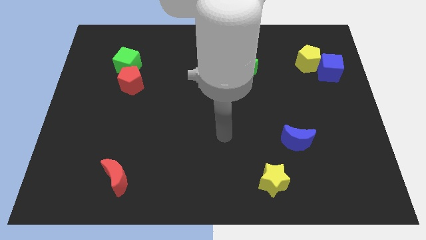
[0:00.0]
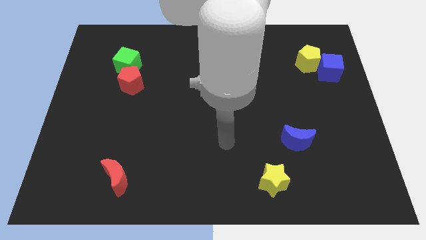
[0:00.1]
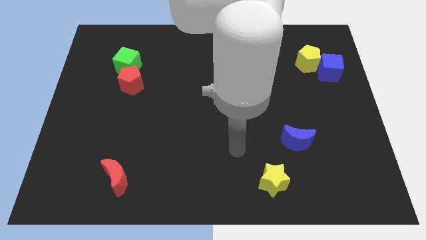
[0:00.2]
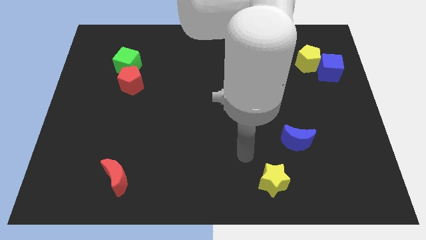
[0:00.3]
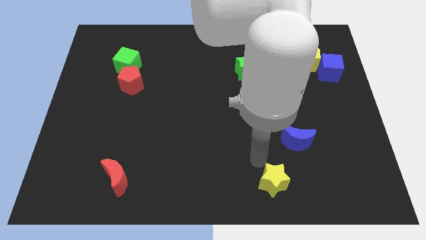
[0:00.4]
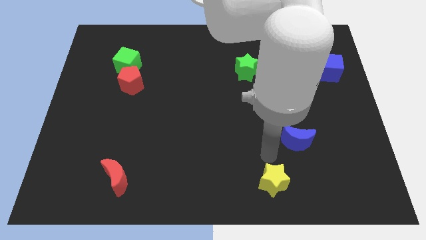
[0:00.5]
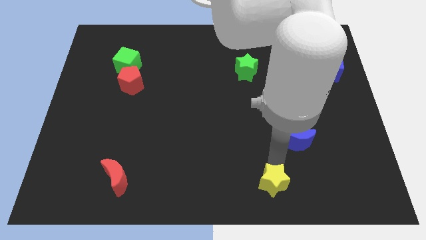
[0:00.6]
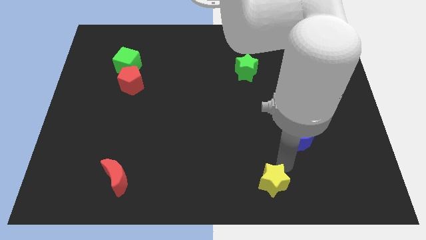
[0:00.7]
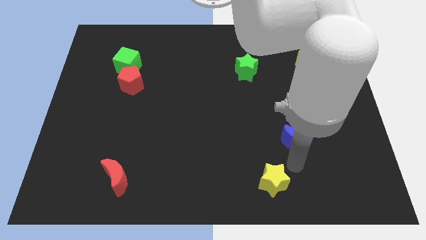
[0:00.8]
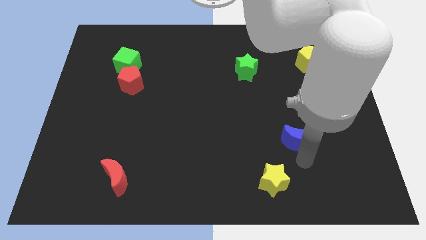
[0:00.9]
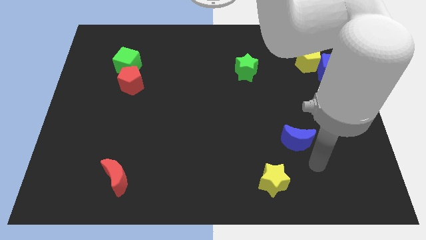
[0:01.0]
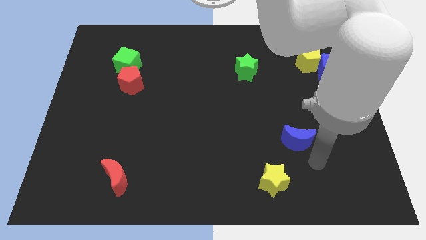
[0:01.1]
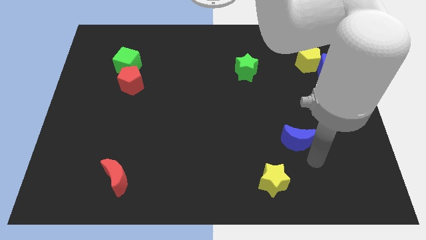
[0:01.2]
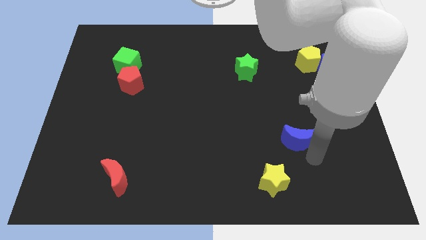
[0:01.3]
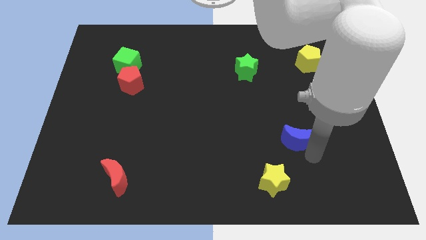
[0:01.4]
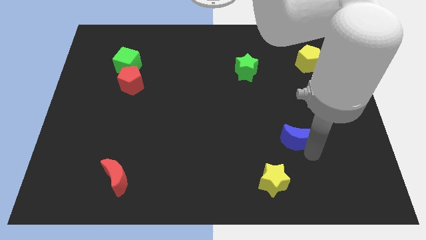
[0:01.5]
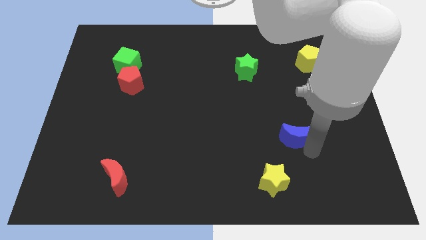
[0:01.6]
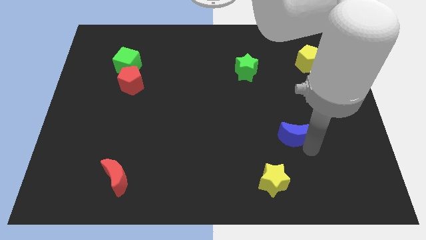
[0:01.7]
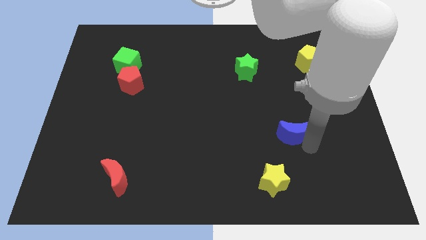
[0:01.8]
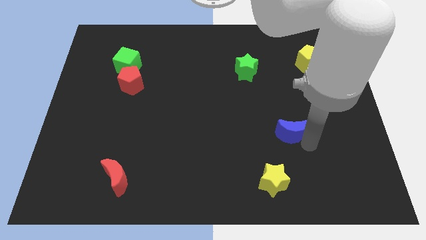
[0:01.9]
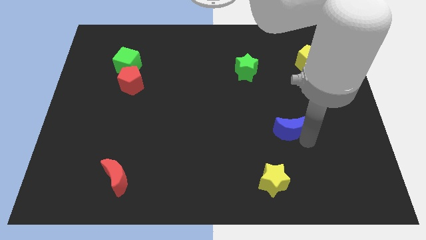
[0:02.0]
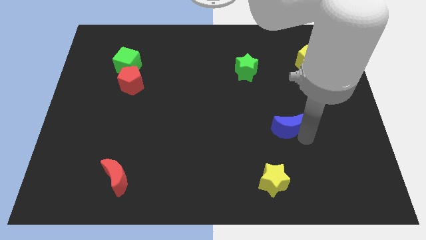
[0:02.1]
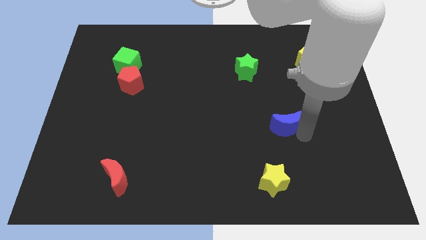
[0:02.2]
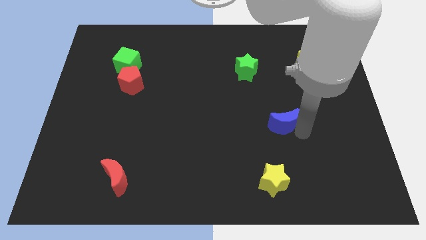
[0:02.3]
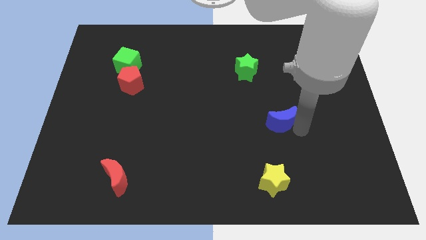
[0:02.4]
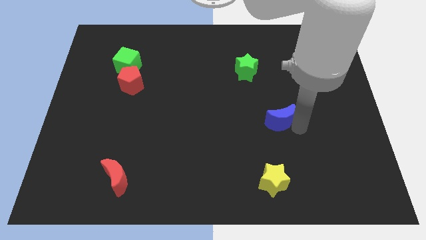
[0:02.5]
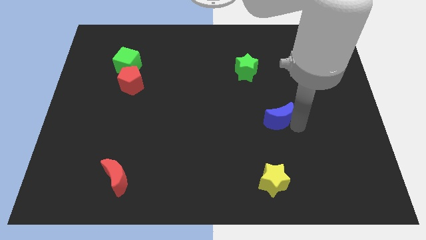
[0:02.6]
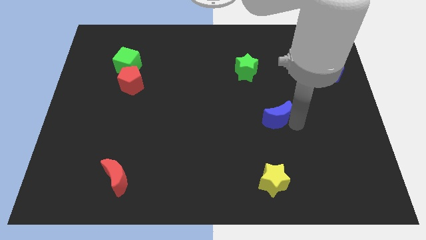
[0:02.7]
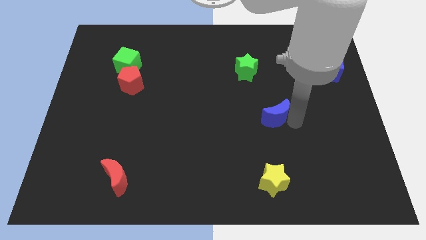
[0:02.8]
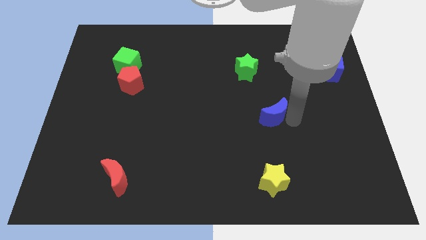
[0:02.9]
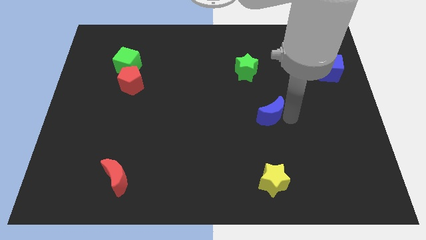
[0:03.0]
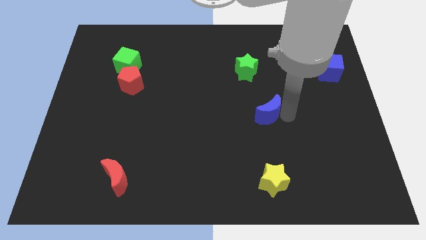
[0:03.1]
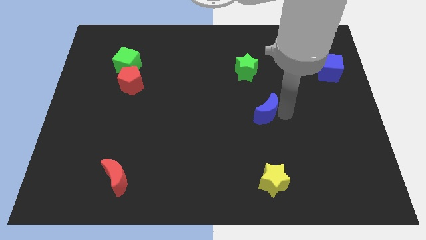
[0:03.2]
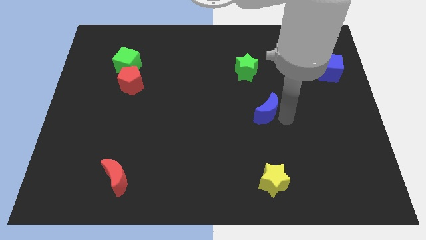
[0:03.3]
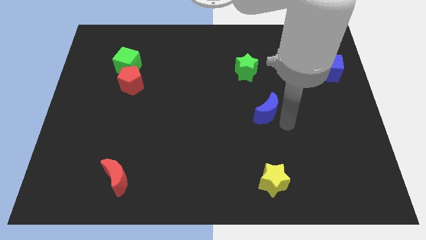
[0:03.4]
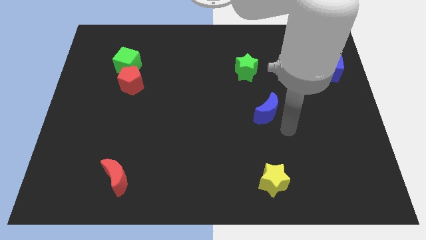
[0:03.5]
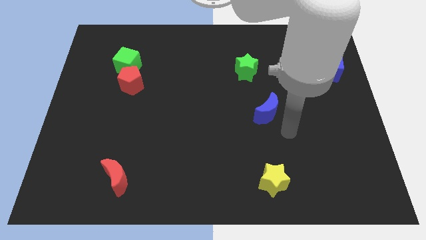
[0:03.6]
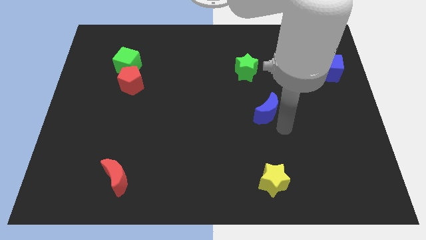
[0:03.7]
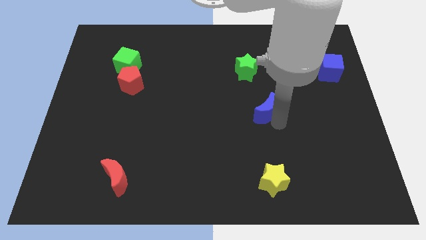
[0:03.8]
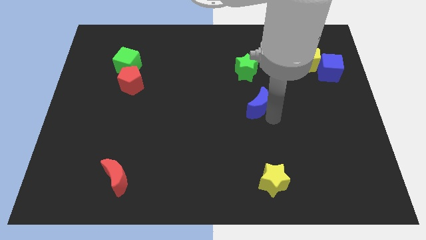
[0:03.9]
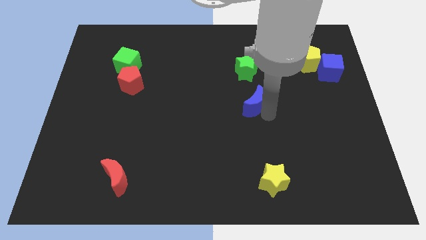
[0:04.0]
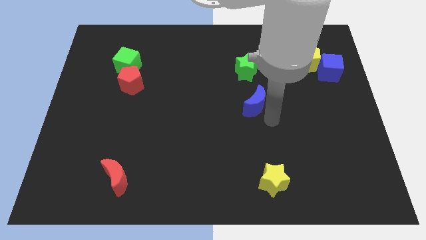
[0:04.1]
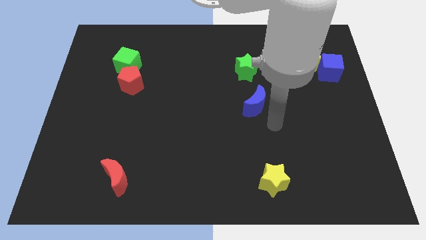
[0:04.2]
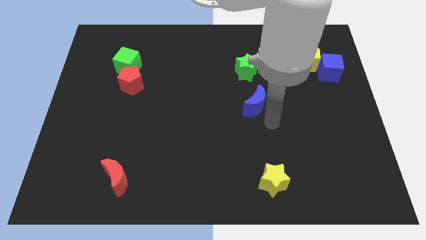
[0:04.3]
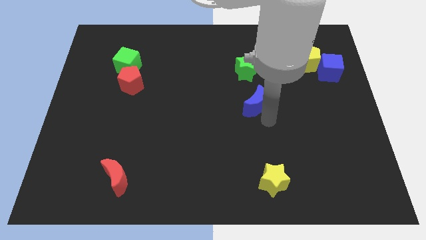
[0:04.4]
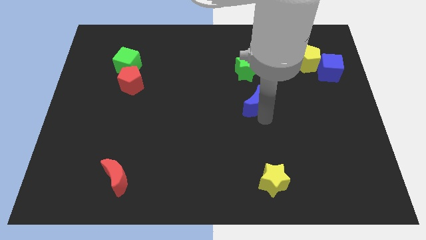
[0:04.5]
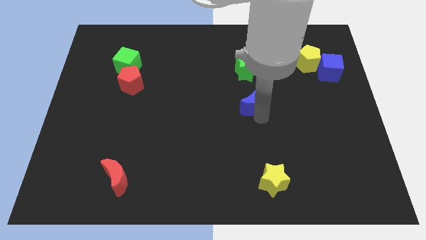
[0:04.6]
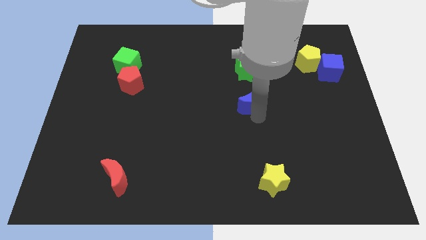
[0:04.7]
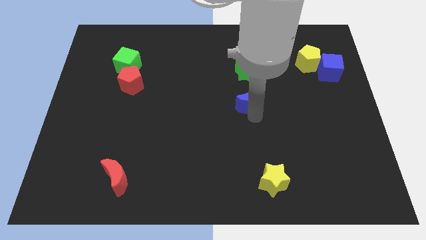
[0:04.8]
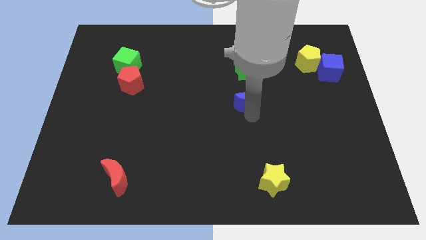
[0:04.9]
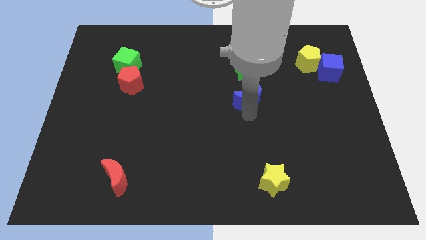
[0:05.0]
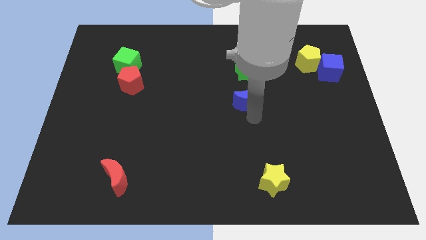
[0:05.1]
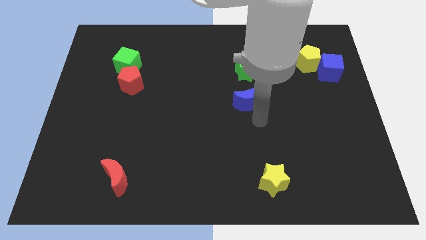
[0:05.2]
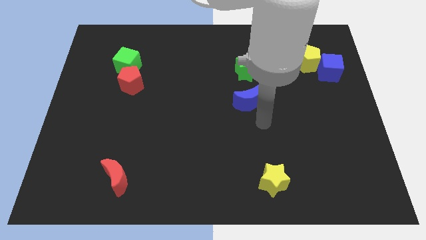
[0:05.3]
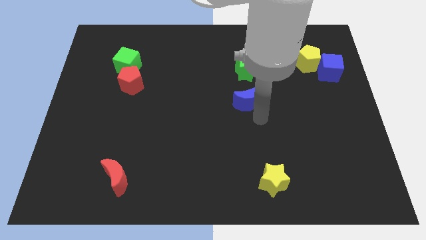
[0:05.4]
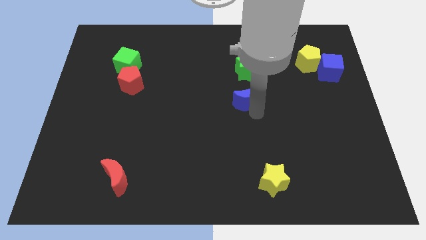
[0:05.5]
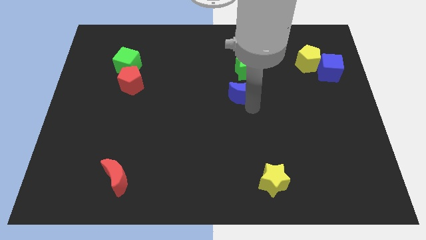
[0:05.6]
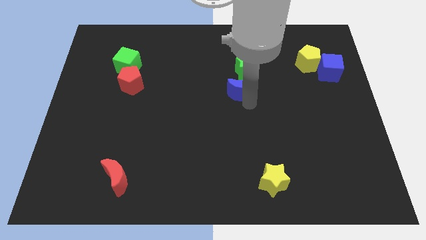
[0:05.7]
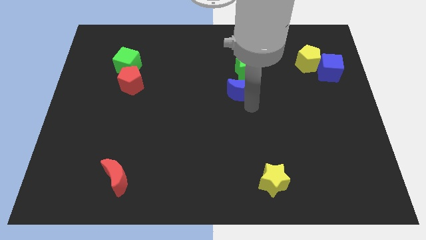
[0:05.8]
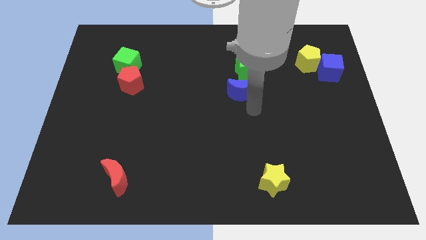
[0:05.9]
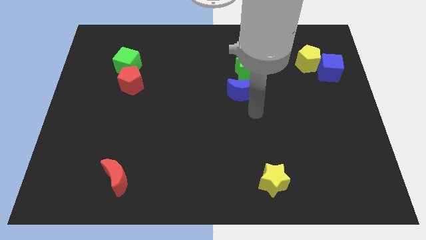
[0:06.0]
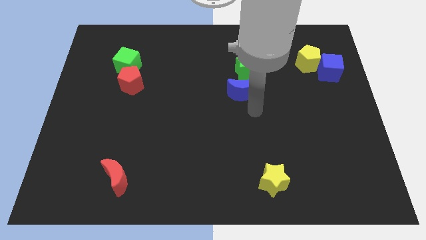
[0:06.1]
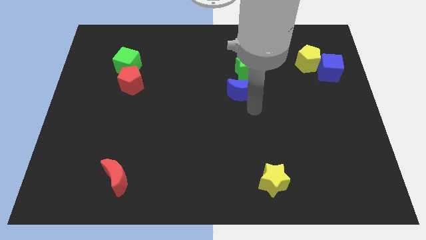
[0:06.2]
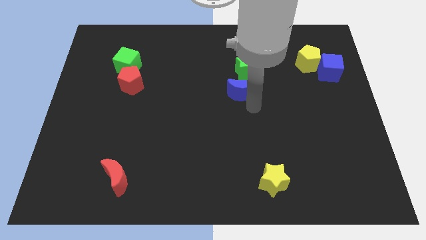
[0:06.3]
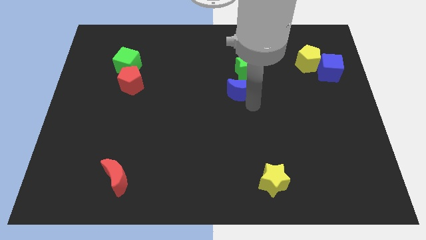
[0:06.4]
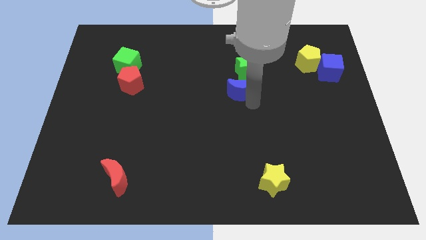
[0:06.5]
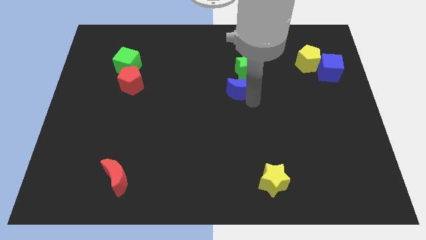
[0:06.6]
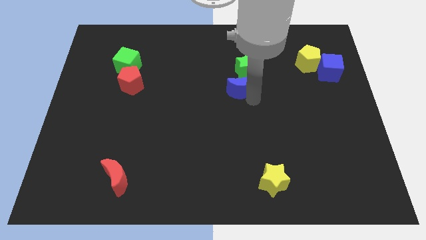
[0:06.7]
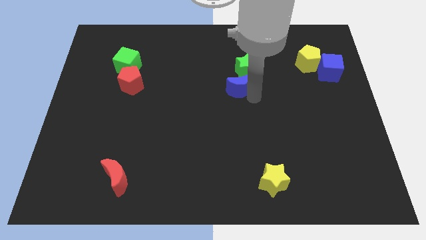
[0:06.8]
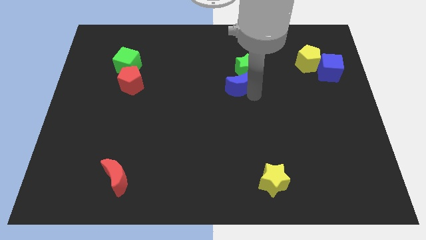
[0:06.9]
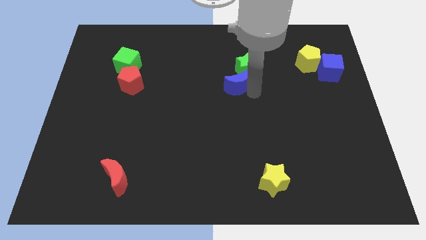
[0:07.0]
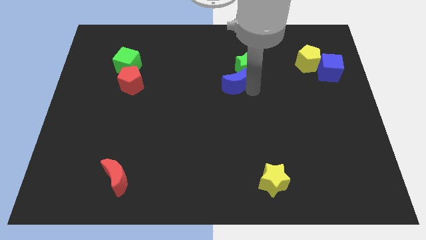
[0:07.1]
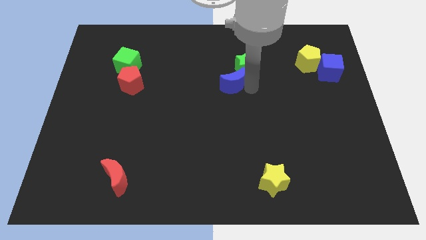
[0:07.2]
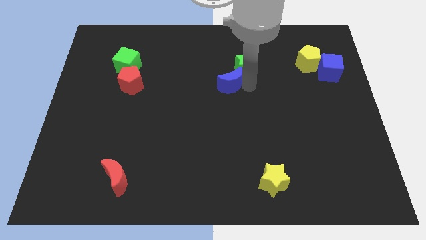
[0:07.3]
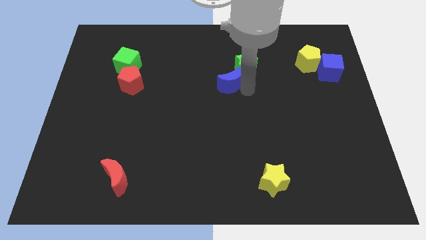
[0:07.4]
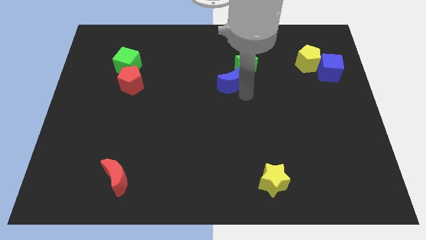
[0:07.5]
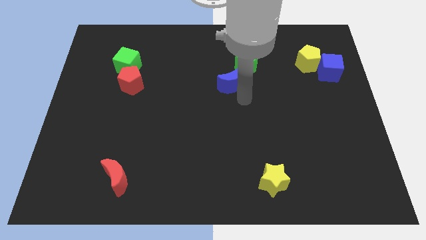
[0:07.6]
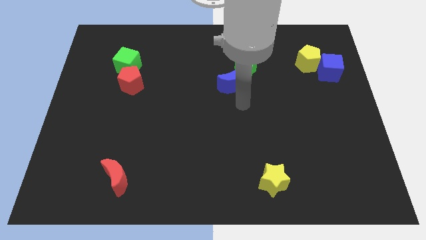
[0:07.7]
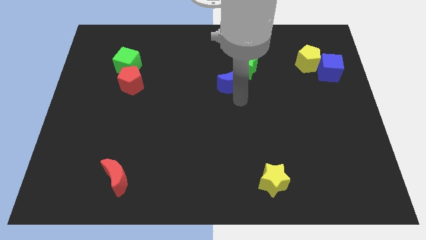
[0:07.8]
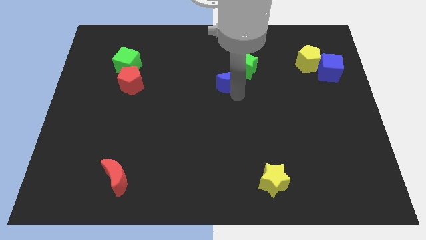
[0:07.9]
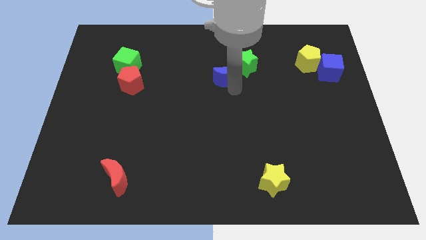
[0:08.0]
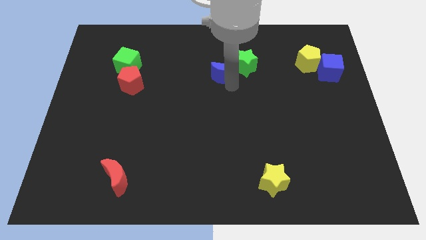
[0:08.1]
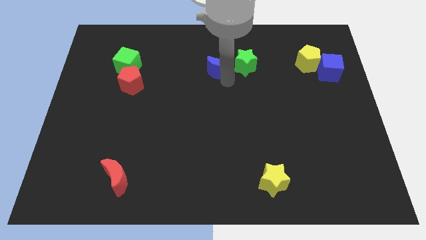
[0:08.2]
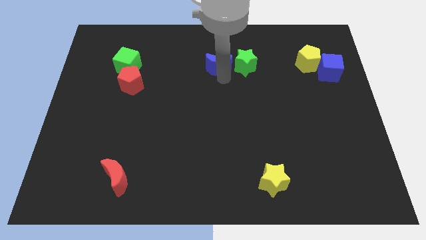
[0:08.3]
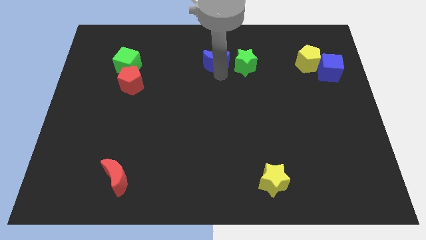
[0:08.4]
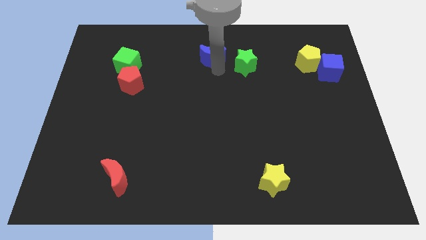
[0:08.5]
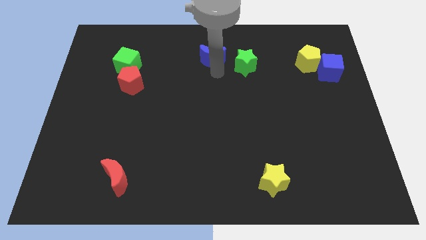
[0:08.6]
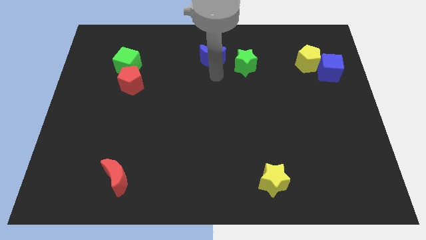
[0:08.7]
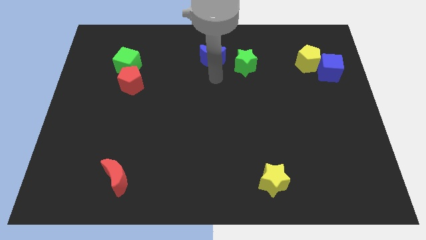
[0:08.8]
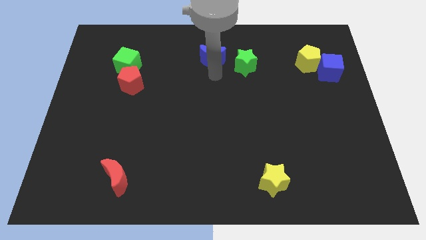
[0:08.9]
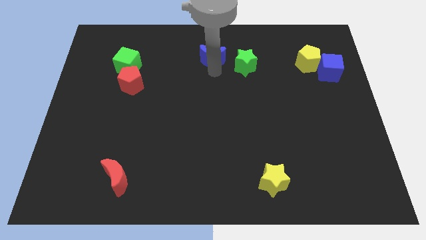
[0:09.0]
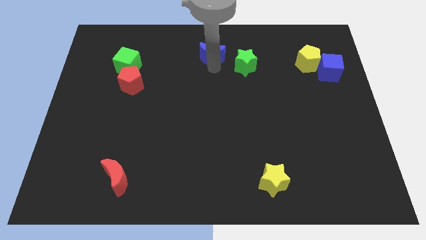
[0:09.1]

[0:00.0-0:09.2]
put the blue moon to the towards your base
